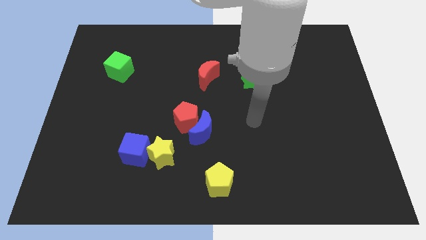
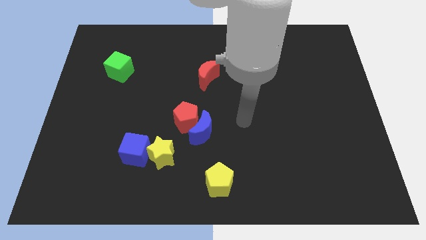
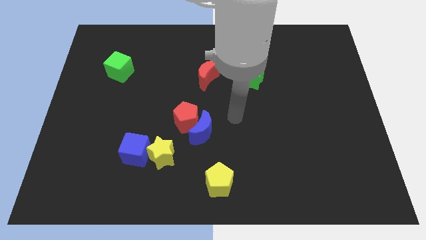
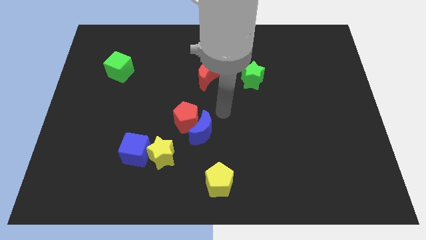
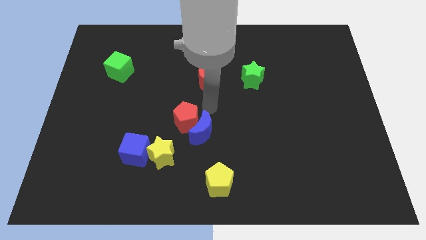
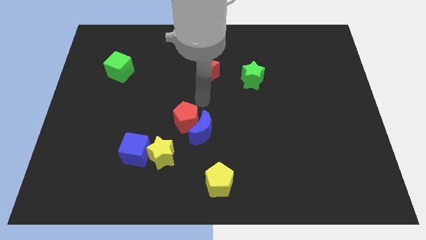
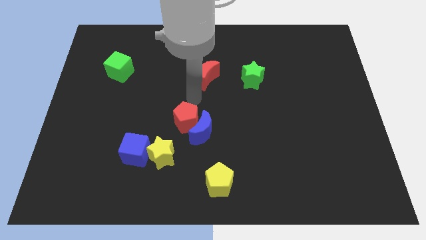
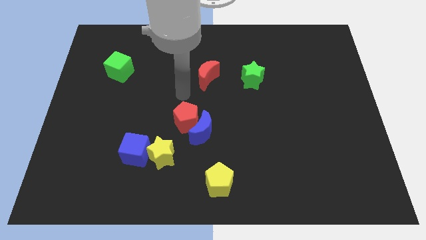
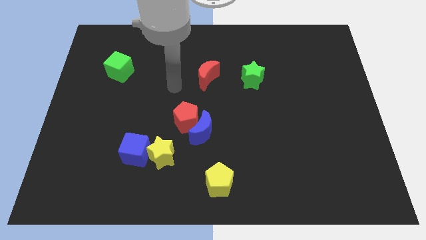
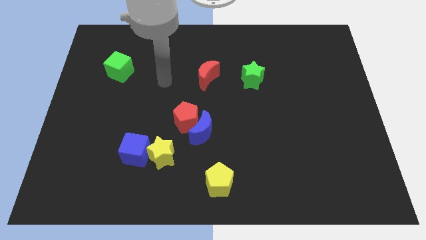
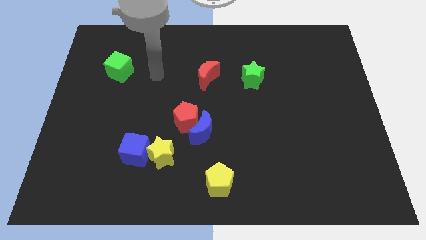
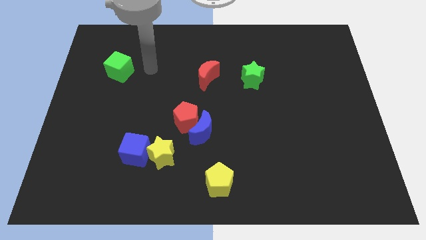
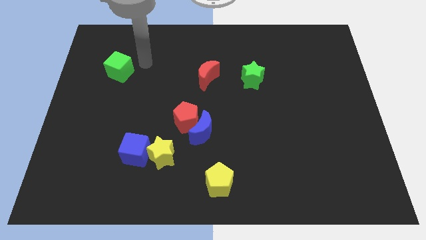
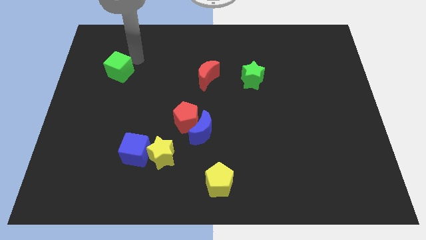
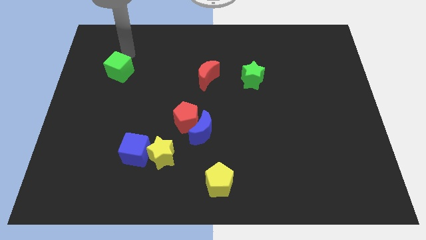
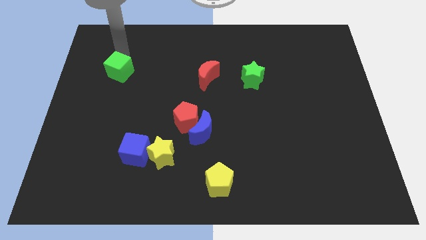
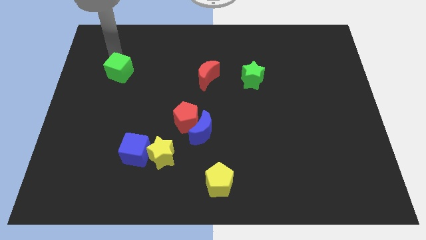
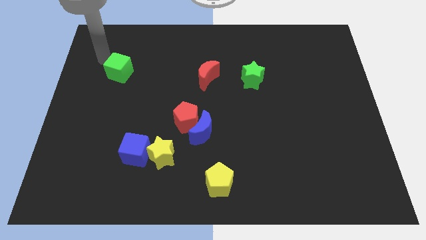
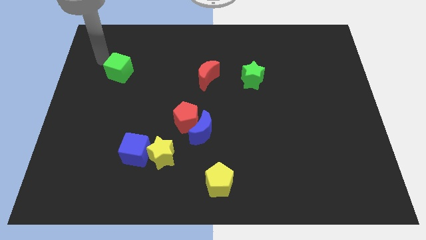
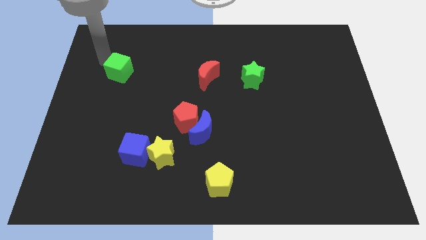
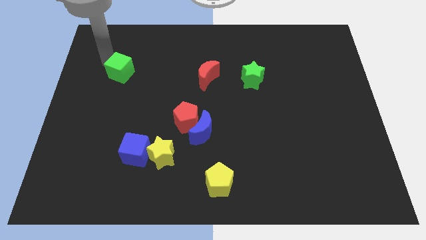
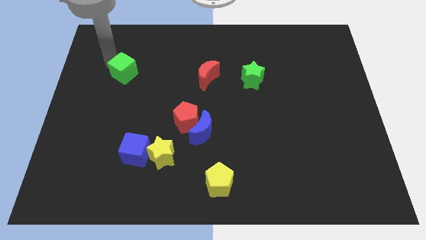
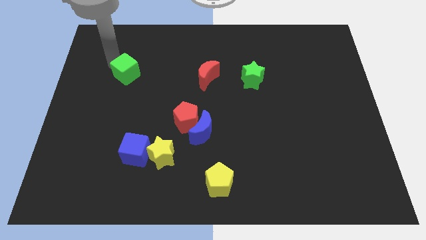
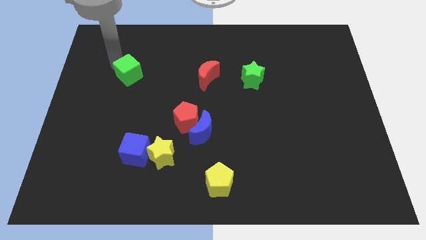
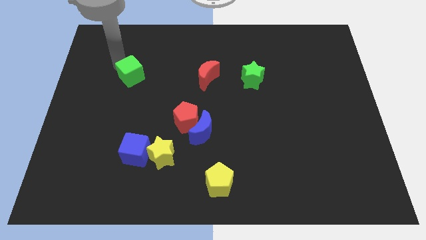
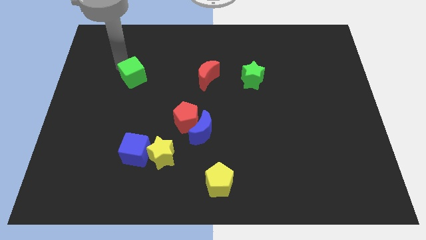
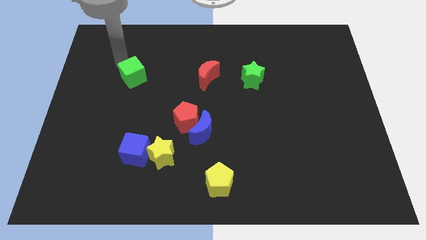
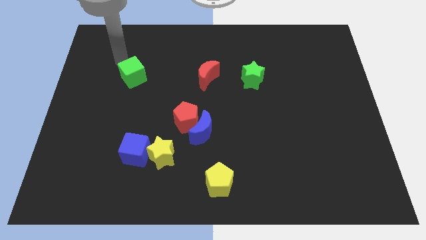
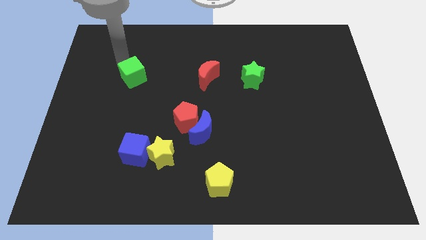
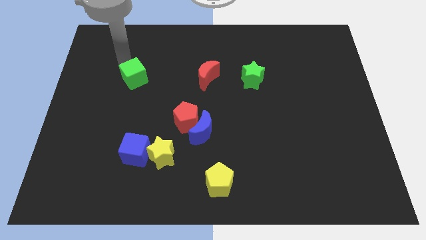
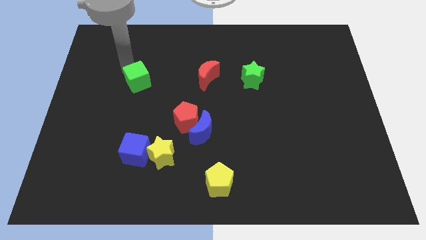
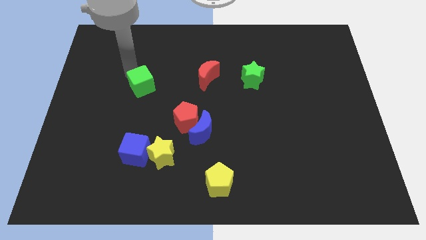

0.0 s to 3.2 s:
push the green cube down and to the right a bit

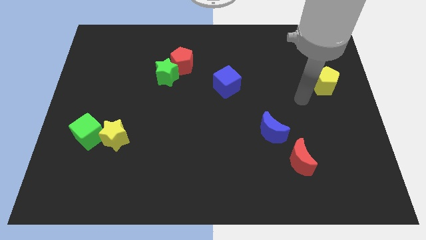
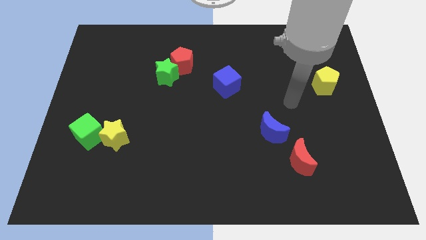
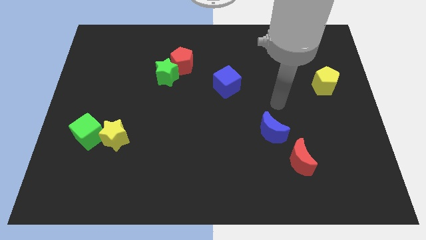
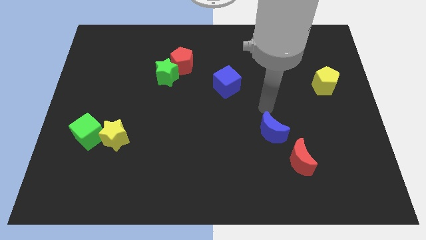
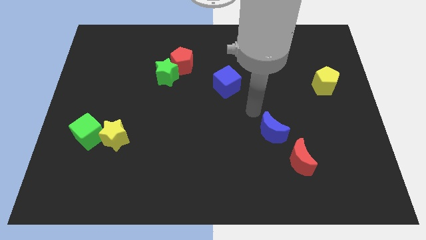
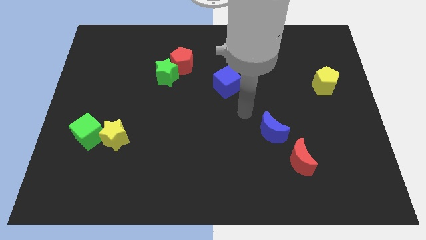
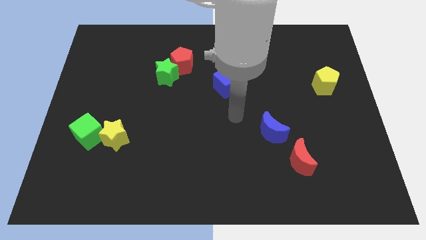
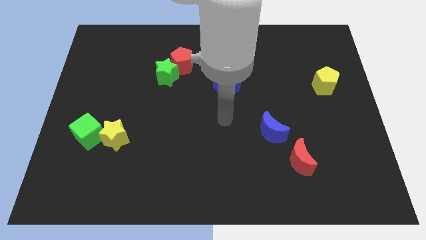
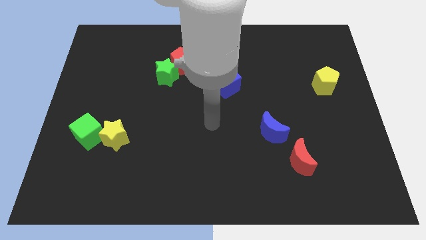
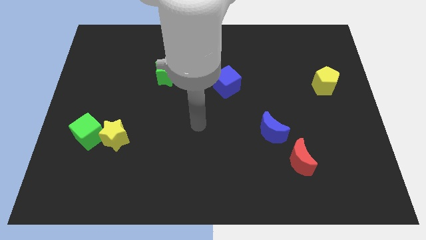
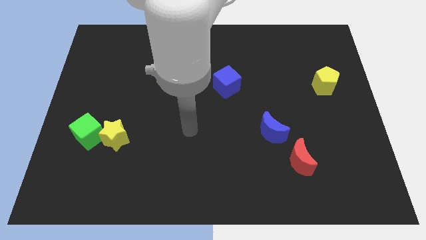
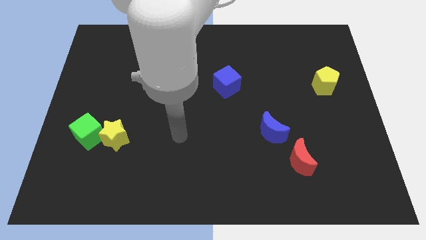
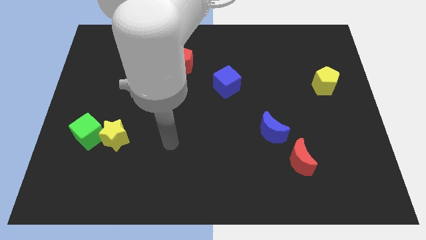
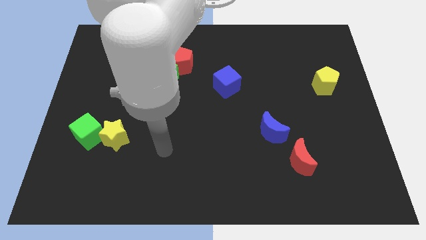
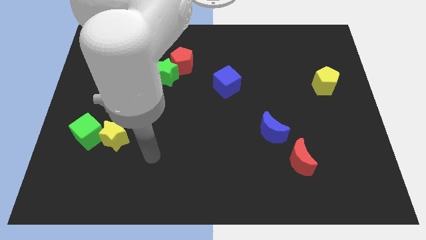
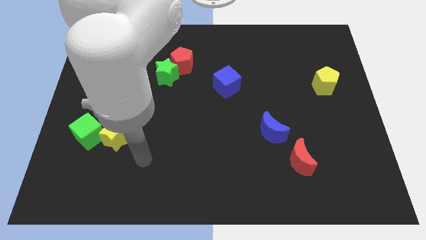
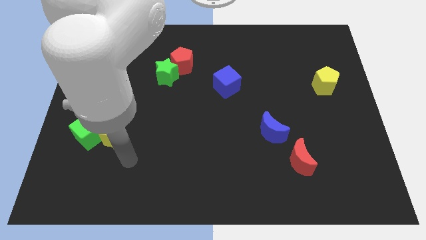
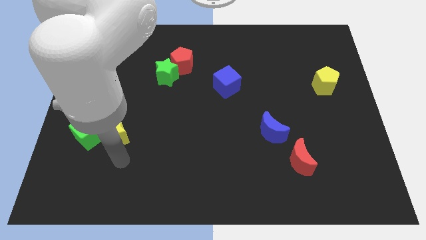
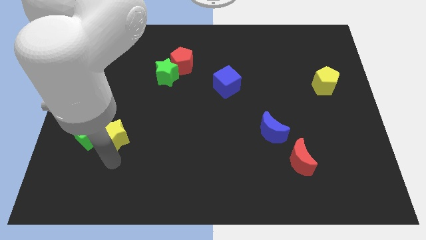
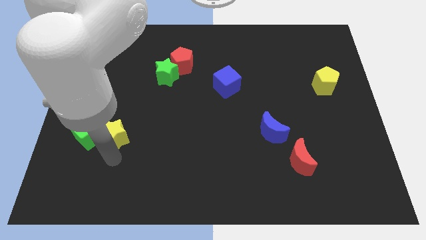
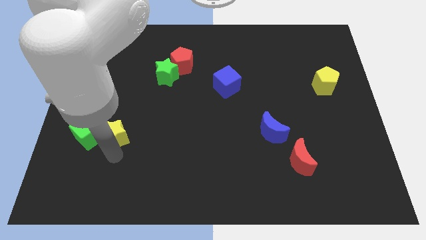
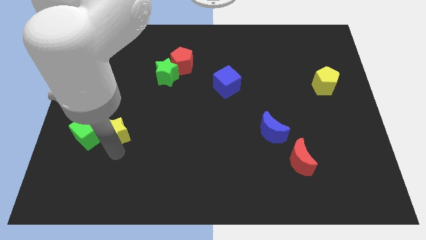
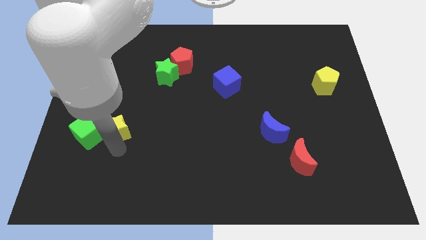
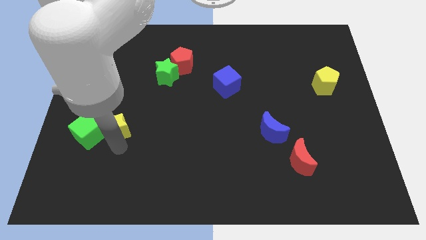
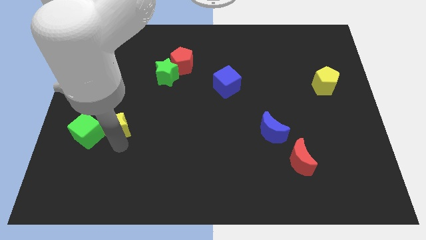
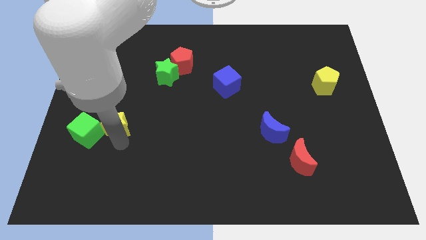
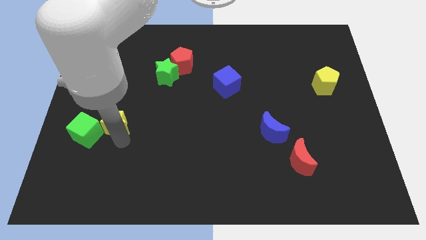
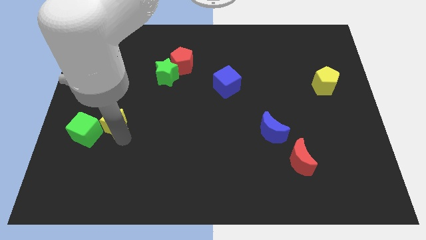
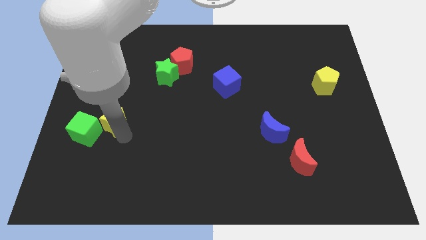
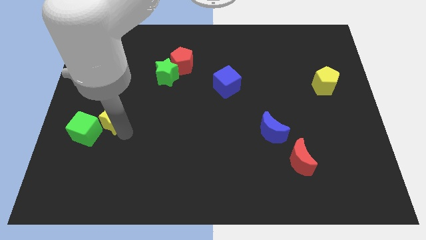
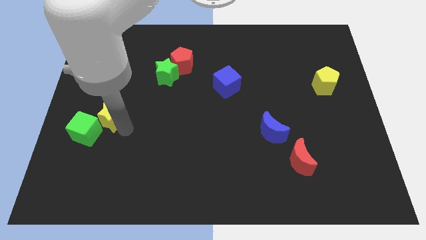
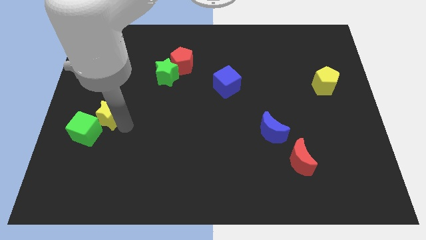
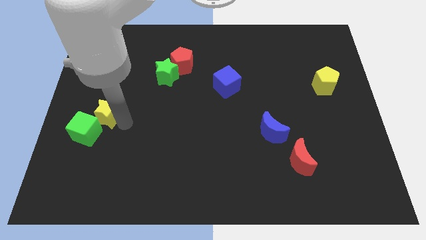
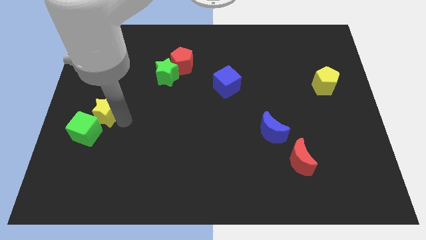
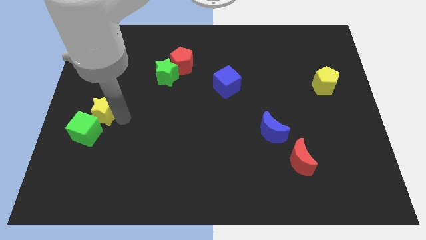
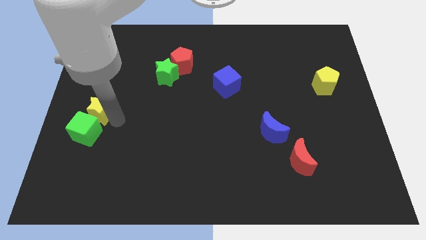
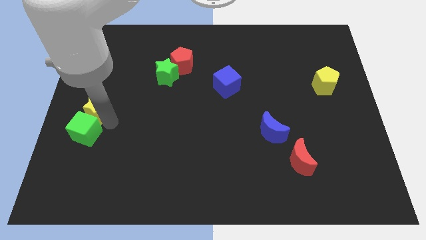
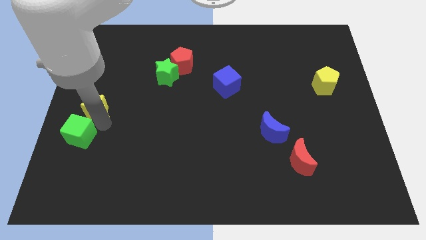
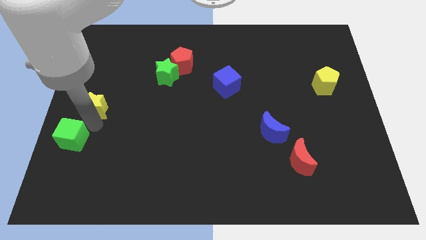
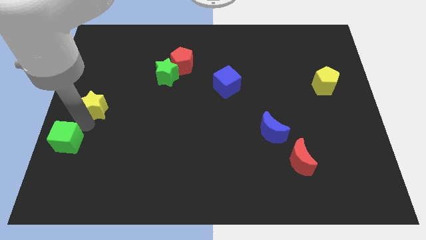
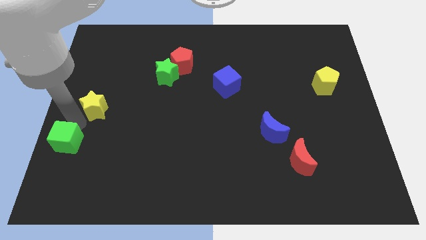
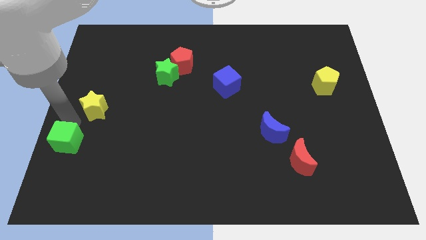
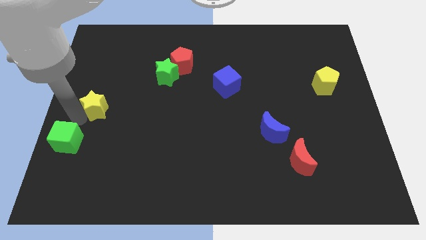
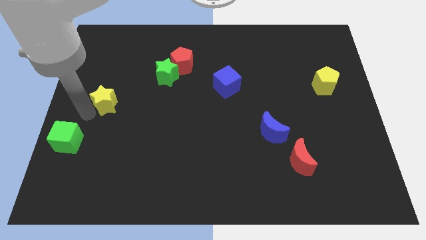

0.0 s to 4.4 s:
slightly slide the yellow star upwards

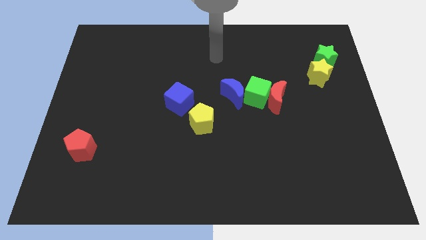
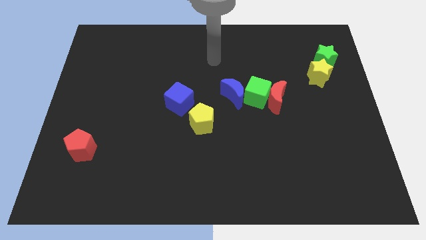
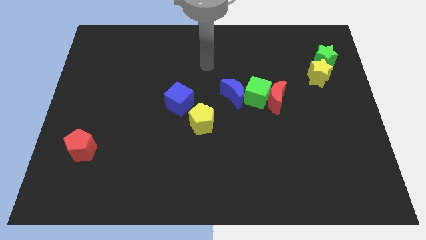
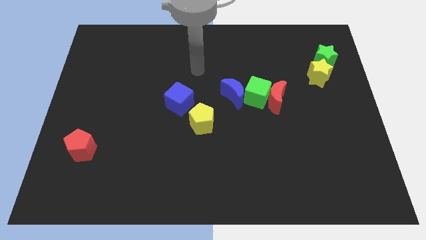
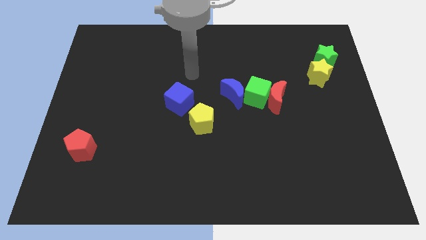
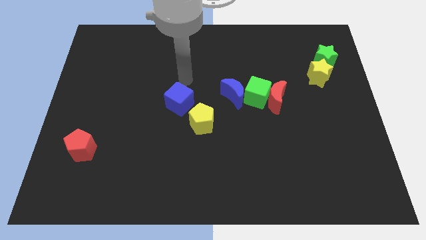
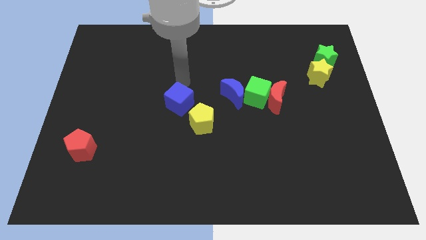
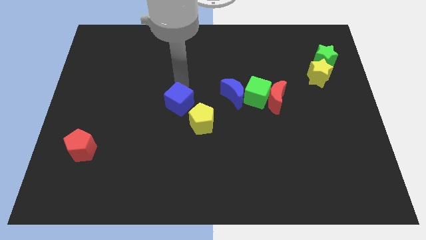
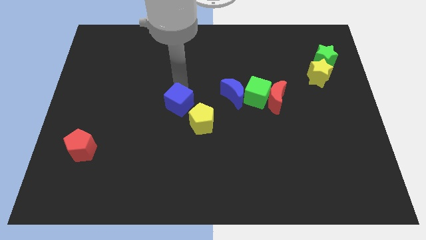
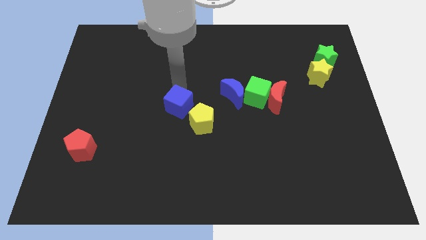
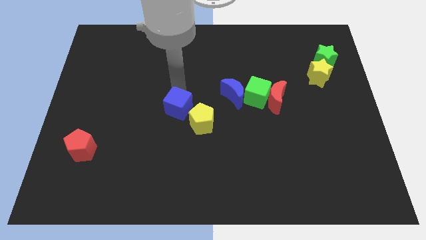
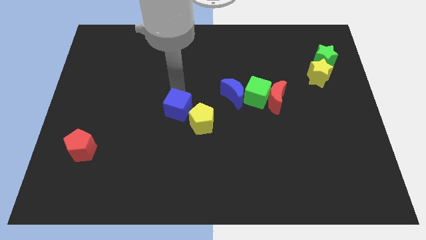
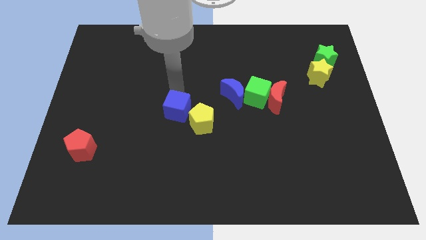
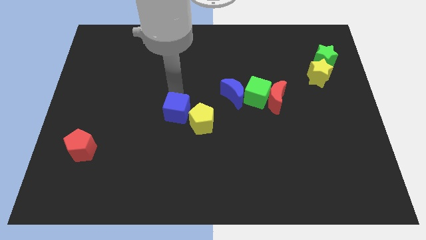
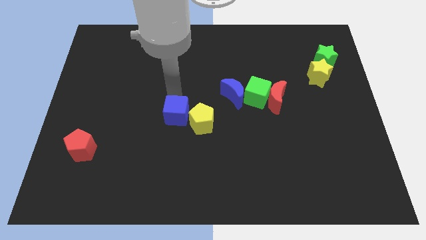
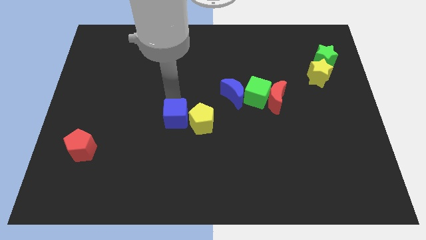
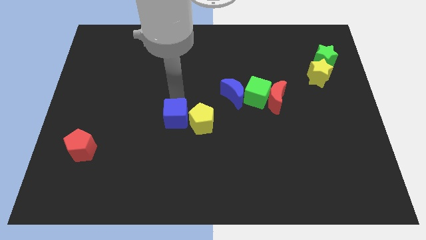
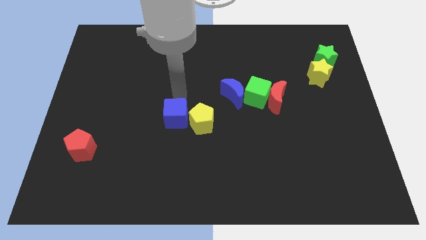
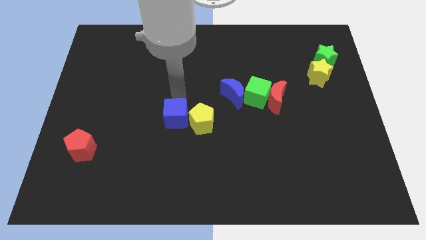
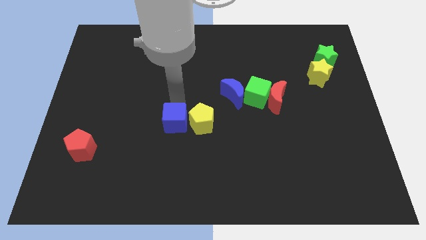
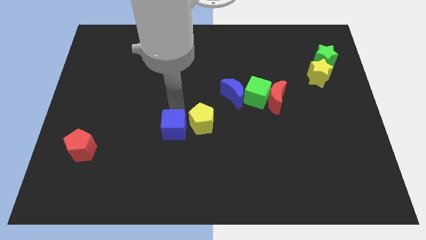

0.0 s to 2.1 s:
slightly move the blue cube down
